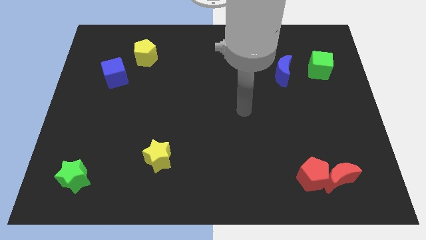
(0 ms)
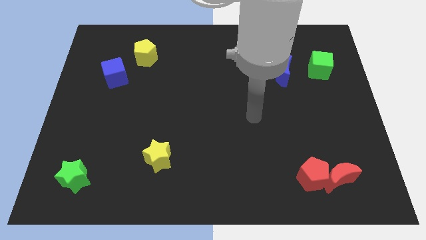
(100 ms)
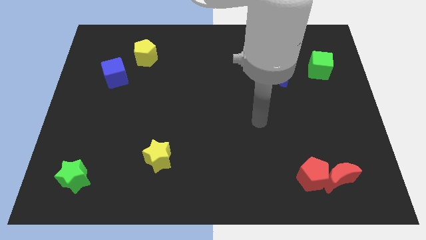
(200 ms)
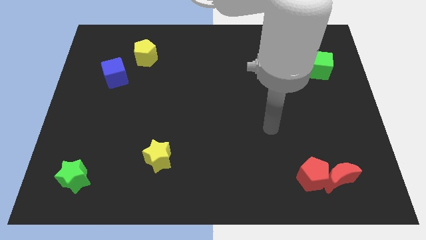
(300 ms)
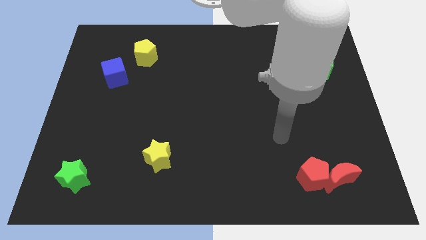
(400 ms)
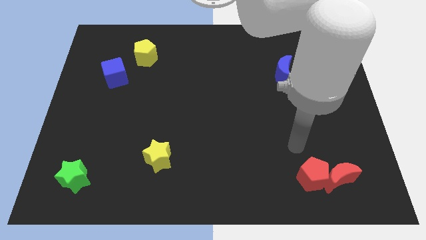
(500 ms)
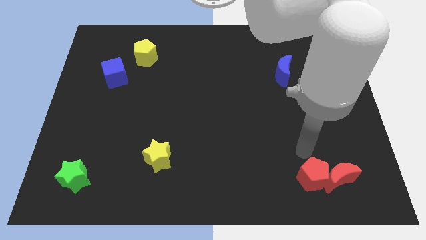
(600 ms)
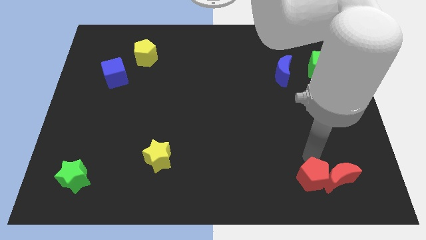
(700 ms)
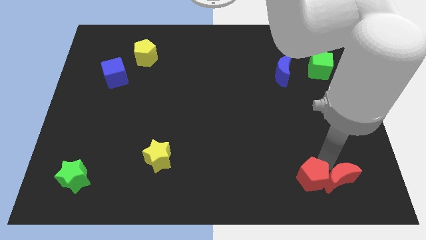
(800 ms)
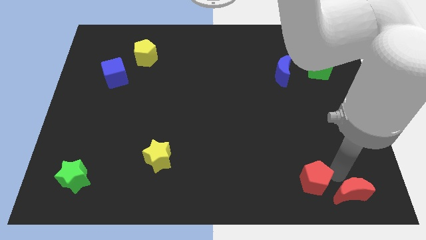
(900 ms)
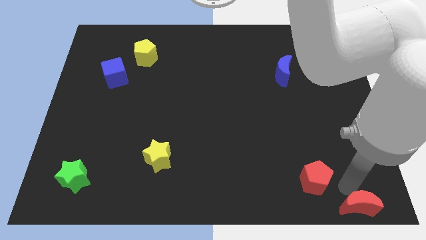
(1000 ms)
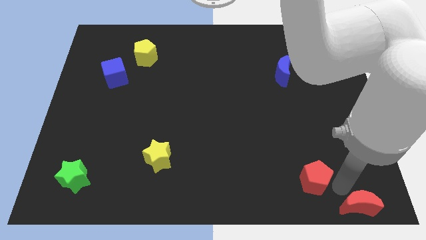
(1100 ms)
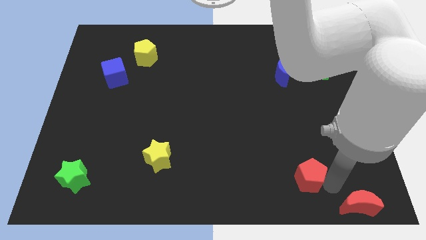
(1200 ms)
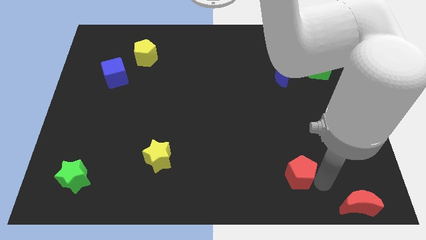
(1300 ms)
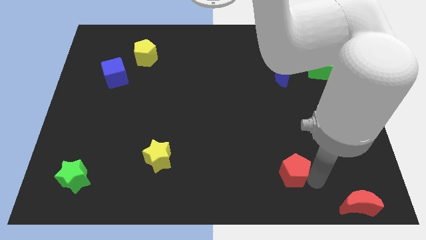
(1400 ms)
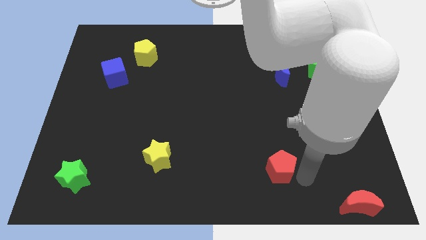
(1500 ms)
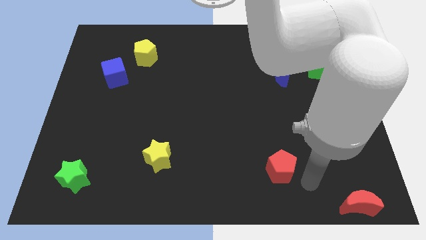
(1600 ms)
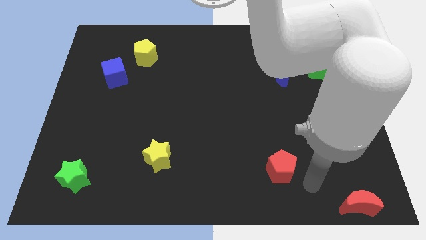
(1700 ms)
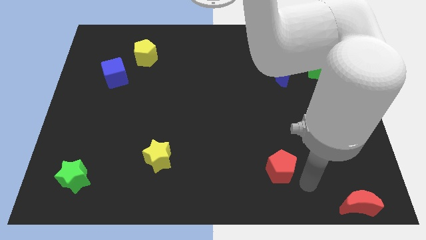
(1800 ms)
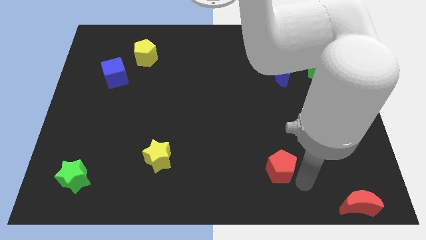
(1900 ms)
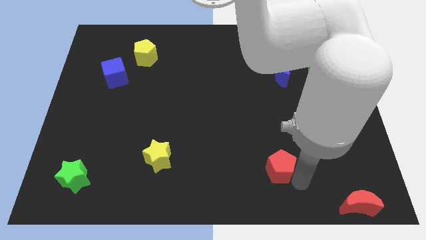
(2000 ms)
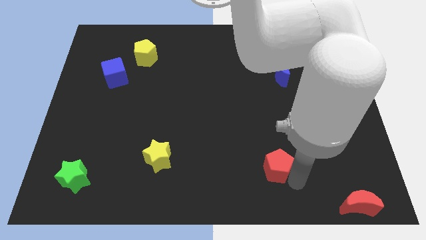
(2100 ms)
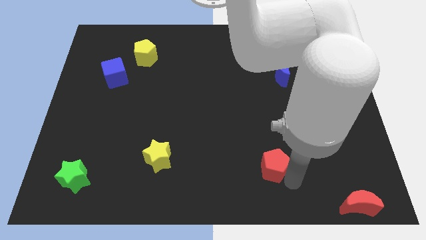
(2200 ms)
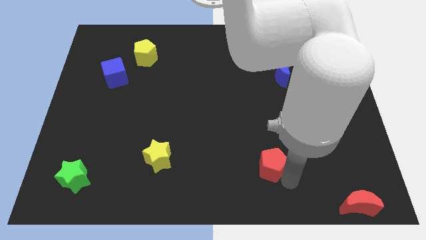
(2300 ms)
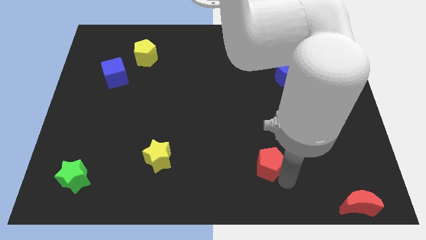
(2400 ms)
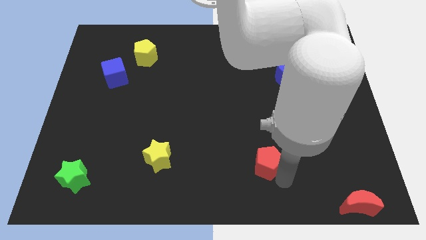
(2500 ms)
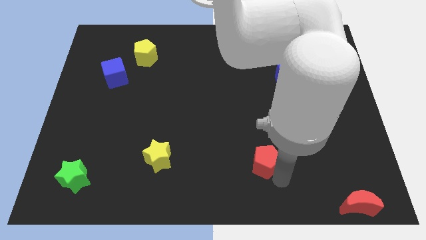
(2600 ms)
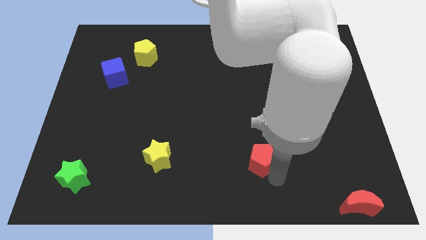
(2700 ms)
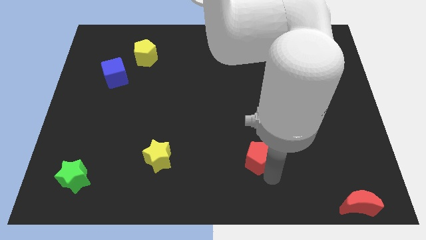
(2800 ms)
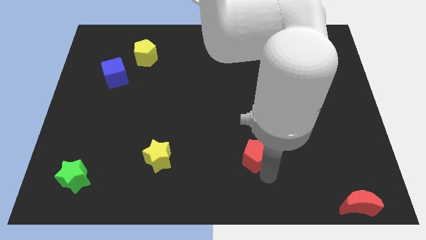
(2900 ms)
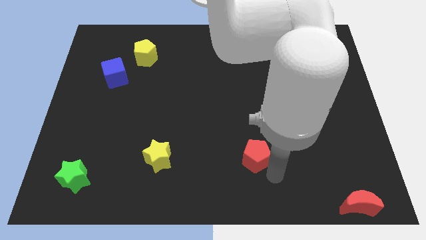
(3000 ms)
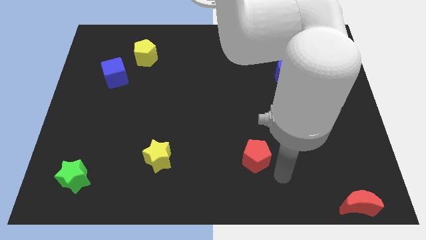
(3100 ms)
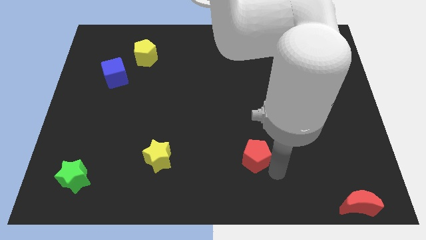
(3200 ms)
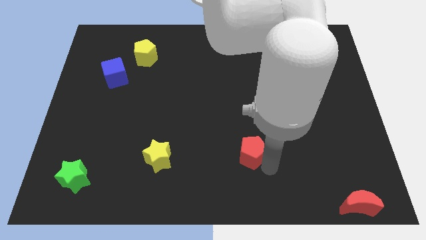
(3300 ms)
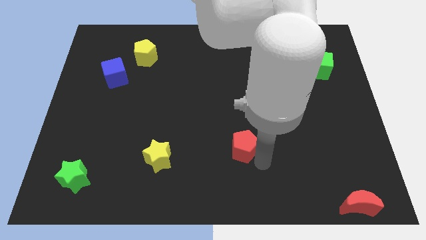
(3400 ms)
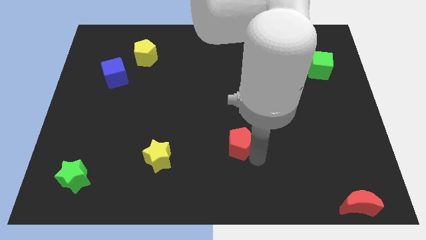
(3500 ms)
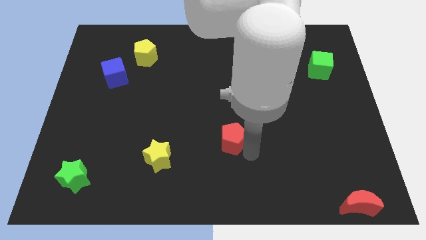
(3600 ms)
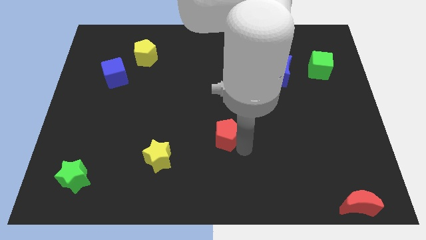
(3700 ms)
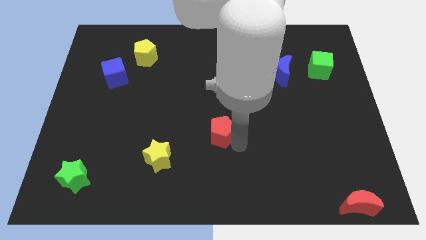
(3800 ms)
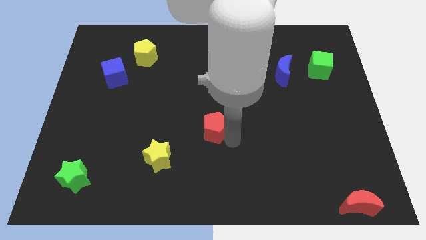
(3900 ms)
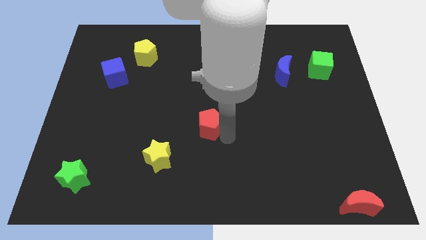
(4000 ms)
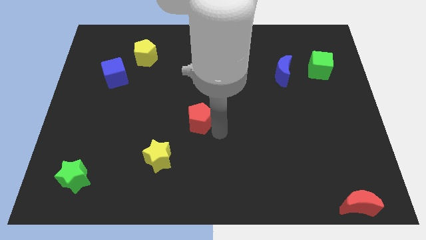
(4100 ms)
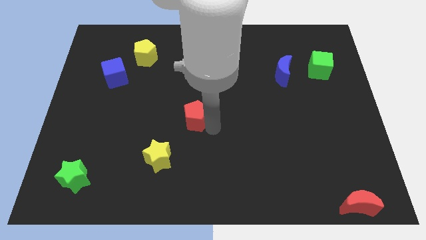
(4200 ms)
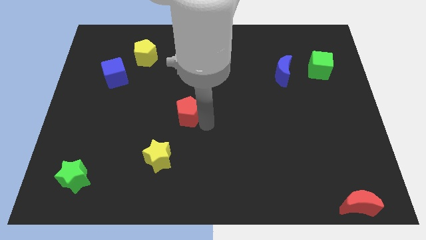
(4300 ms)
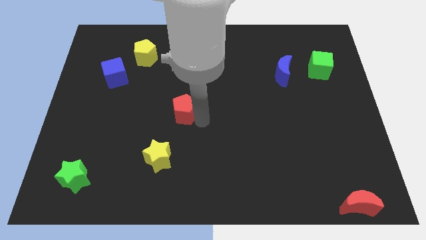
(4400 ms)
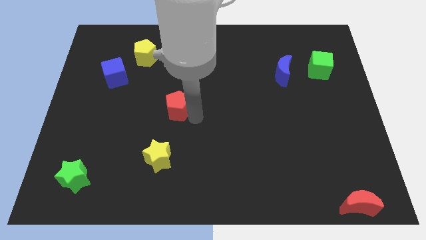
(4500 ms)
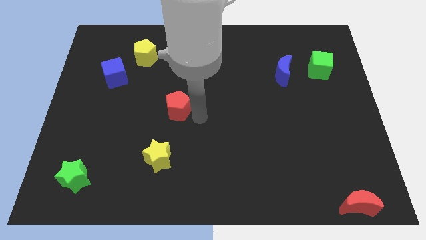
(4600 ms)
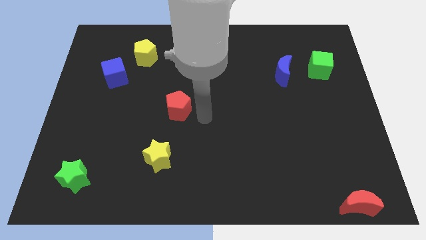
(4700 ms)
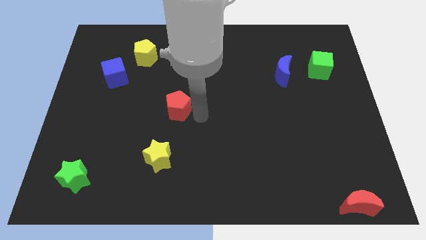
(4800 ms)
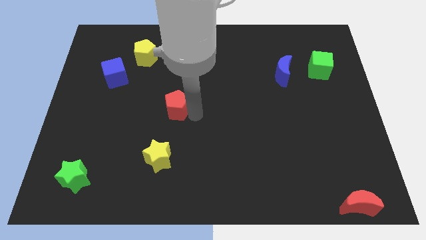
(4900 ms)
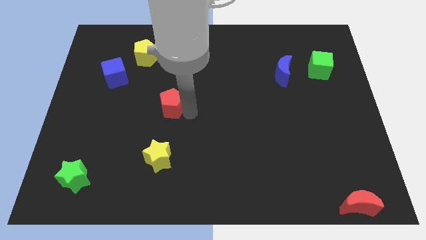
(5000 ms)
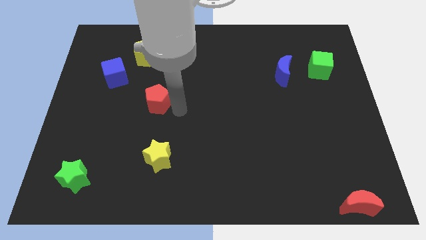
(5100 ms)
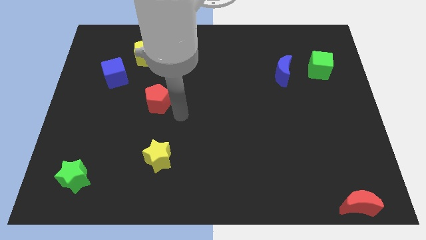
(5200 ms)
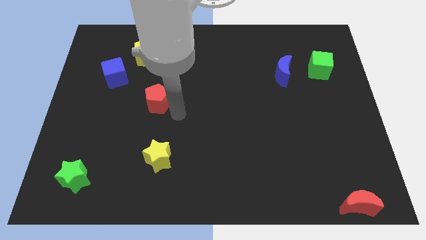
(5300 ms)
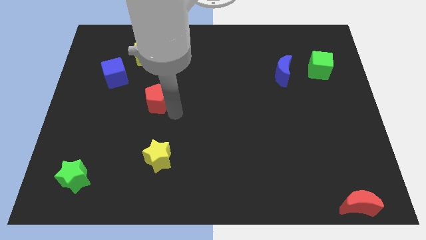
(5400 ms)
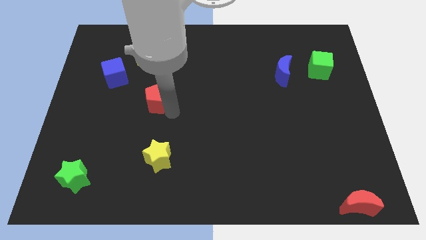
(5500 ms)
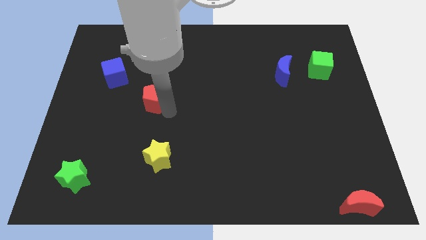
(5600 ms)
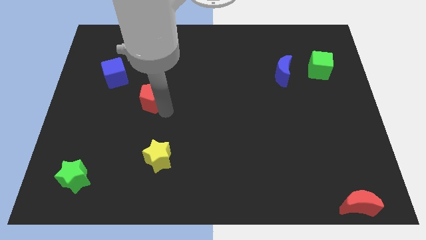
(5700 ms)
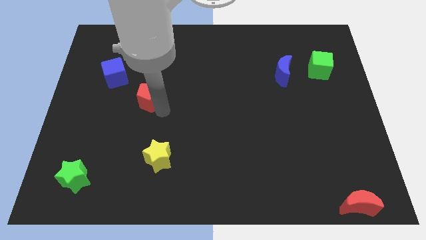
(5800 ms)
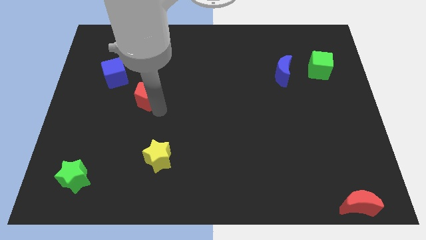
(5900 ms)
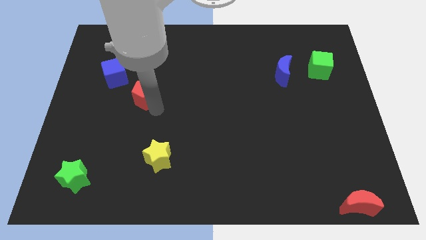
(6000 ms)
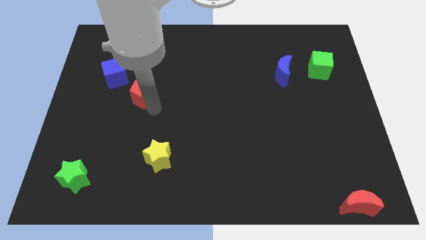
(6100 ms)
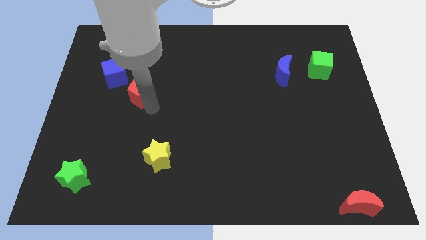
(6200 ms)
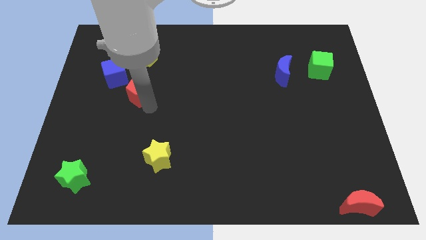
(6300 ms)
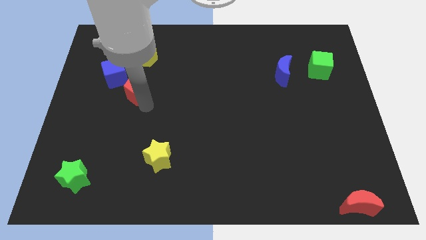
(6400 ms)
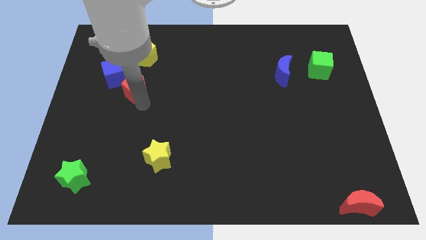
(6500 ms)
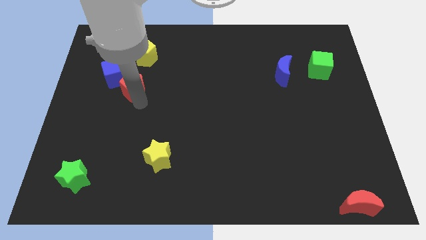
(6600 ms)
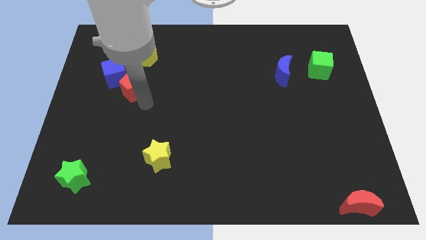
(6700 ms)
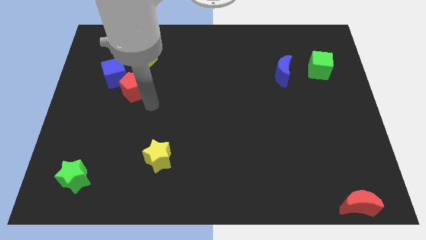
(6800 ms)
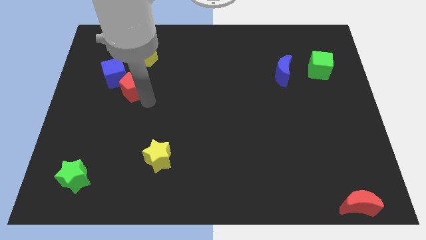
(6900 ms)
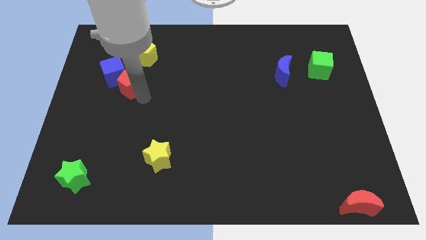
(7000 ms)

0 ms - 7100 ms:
slide the red pentagon towards the blue cube

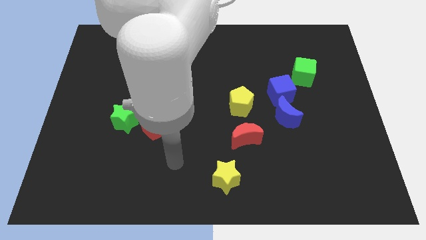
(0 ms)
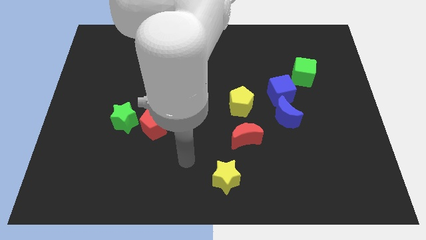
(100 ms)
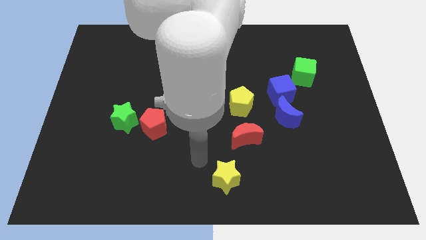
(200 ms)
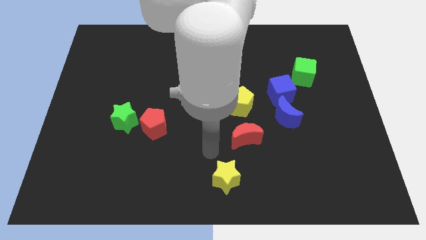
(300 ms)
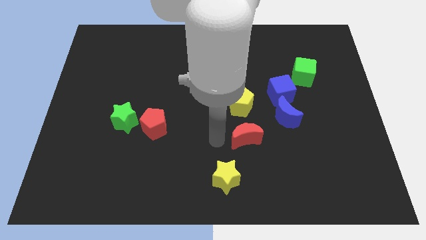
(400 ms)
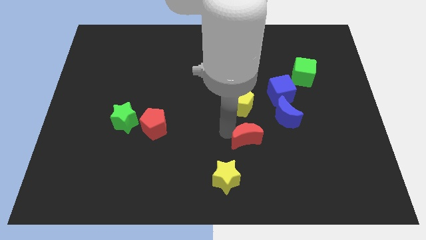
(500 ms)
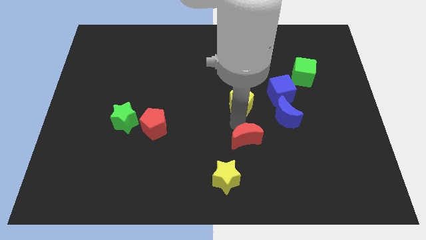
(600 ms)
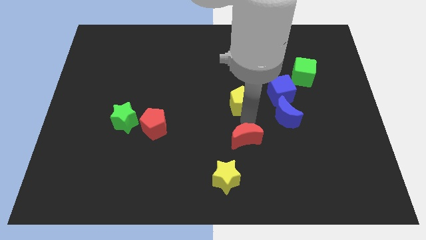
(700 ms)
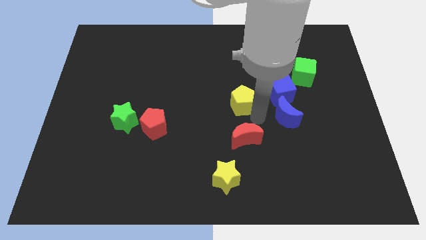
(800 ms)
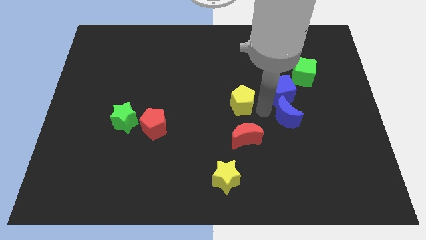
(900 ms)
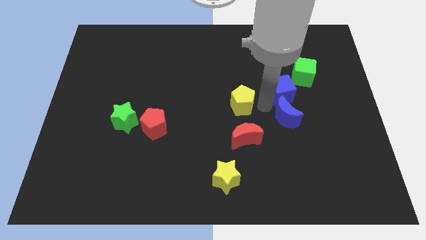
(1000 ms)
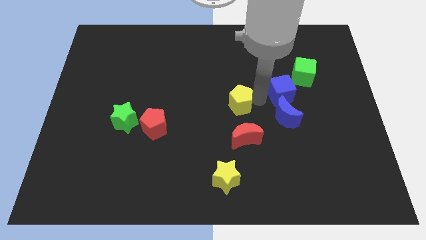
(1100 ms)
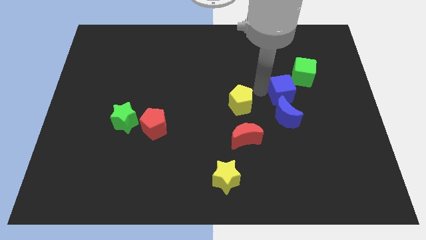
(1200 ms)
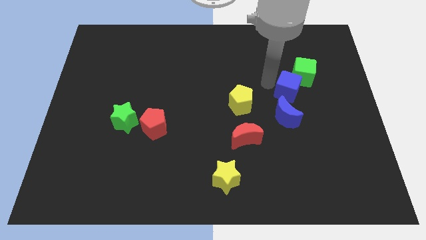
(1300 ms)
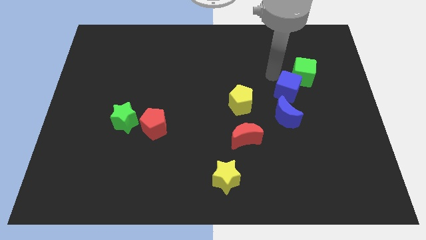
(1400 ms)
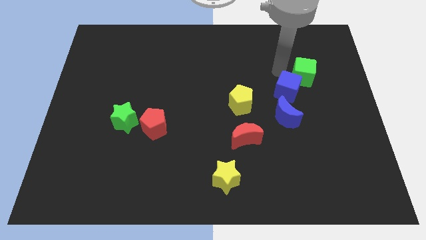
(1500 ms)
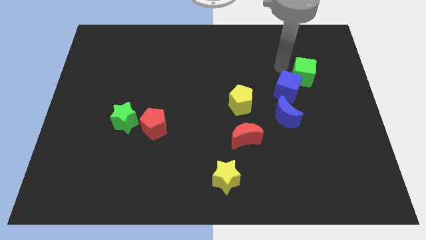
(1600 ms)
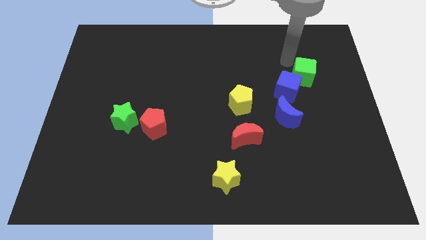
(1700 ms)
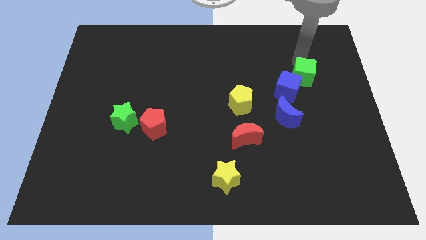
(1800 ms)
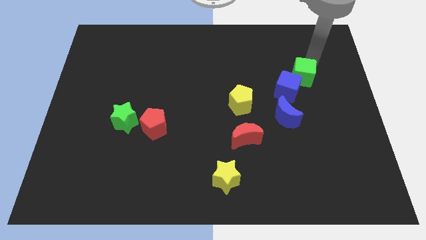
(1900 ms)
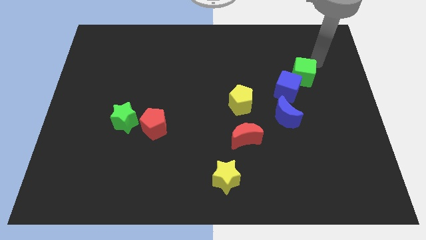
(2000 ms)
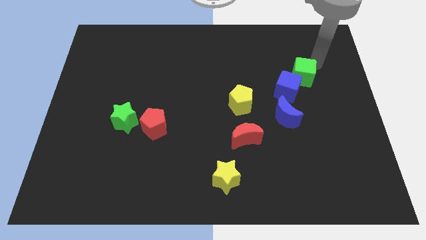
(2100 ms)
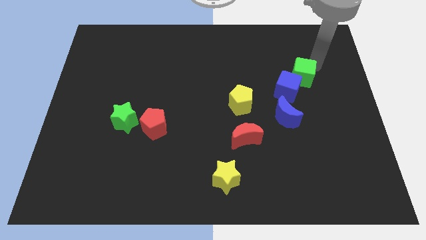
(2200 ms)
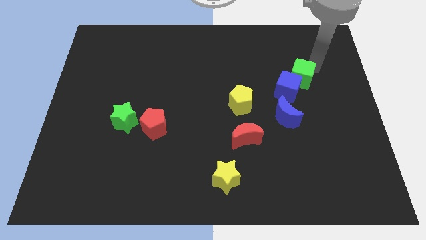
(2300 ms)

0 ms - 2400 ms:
put the green cube towards the blue cube
